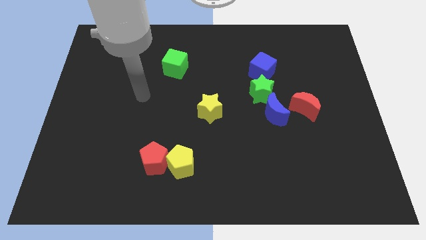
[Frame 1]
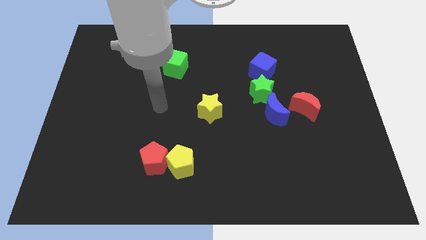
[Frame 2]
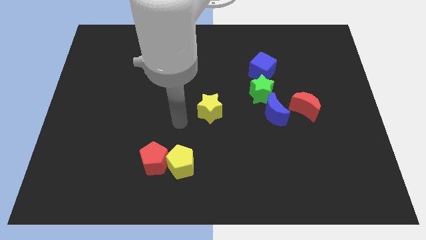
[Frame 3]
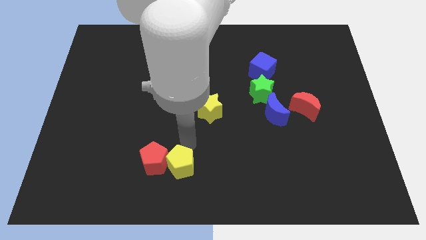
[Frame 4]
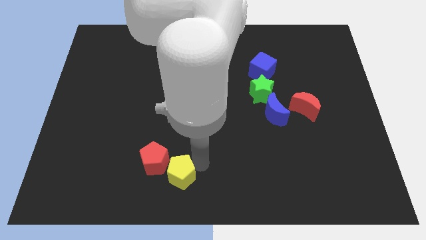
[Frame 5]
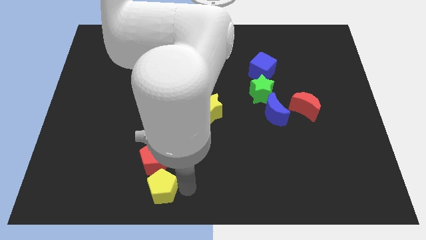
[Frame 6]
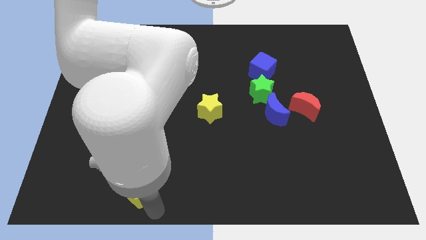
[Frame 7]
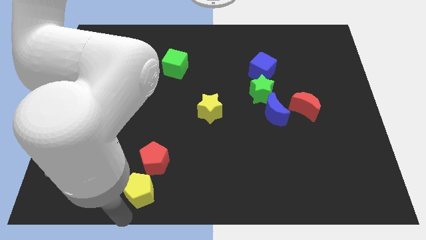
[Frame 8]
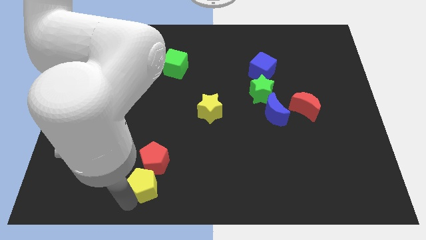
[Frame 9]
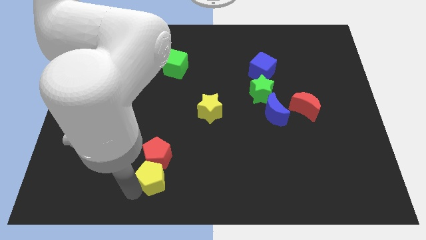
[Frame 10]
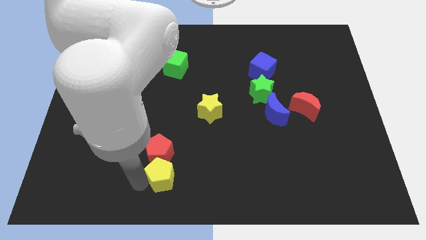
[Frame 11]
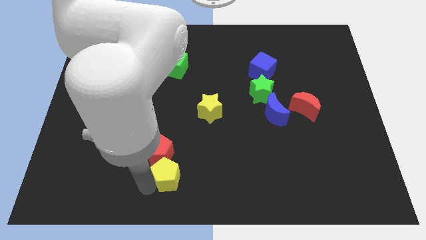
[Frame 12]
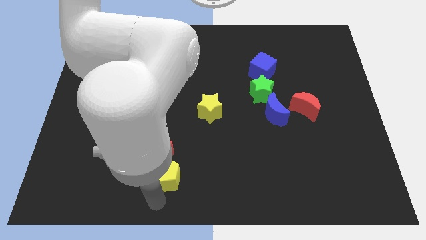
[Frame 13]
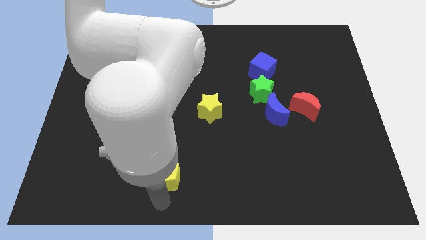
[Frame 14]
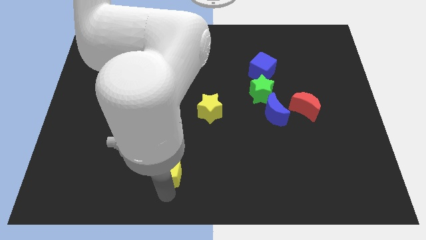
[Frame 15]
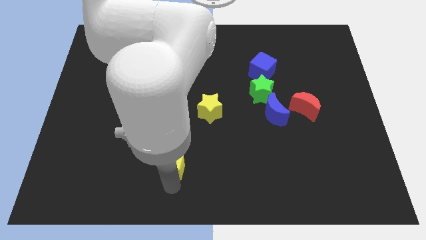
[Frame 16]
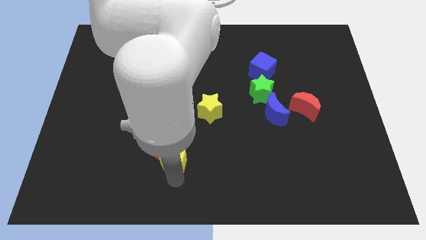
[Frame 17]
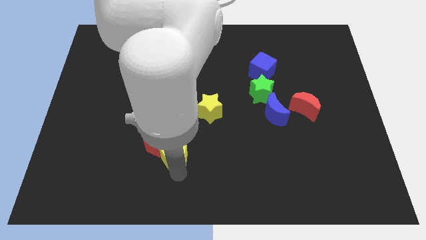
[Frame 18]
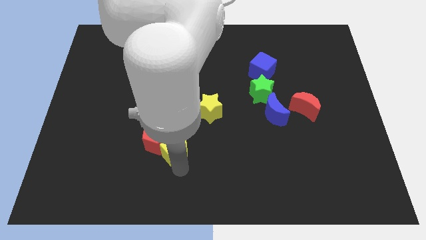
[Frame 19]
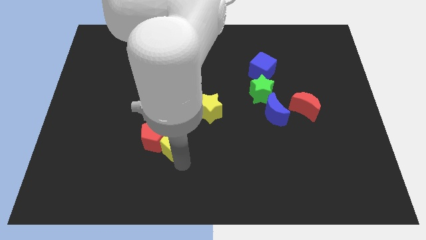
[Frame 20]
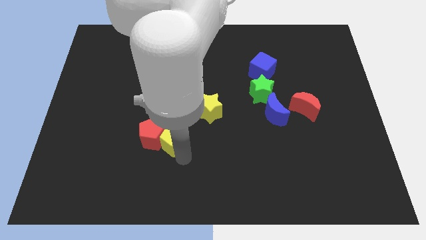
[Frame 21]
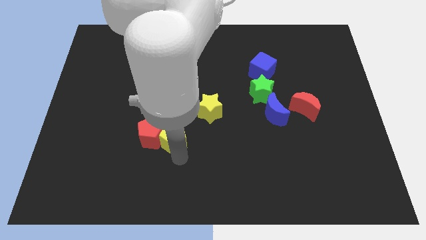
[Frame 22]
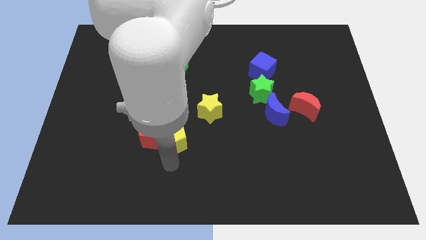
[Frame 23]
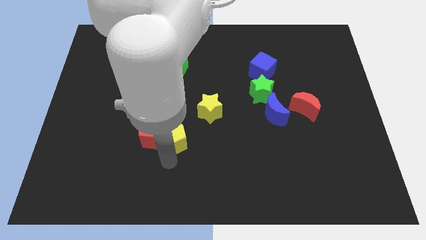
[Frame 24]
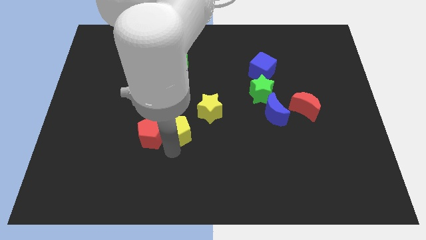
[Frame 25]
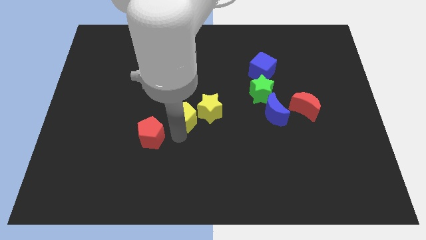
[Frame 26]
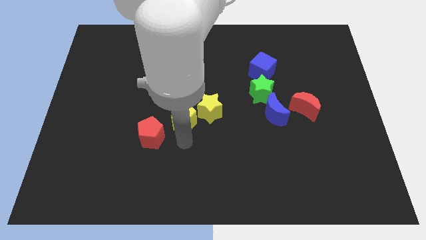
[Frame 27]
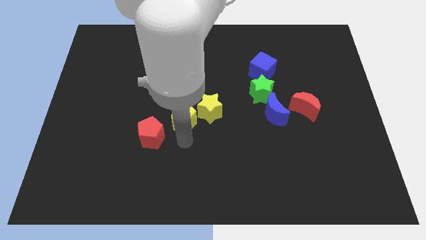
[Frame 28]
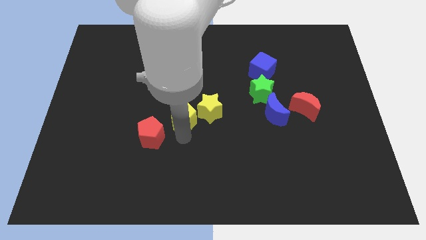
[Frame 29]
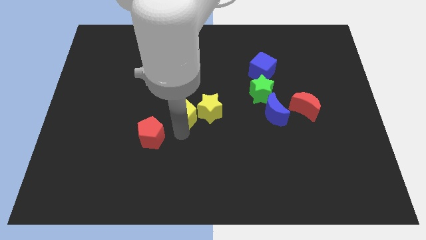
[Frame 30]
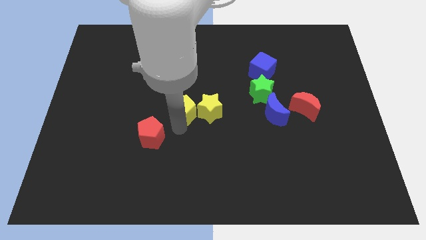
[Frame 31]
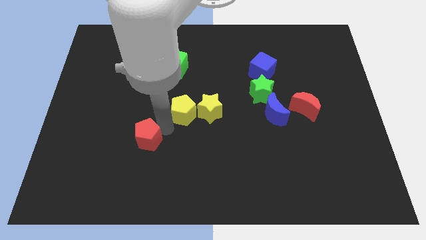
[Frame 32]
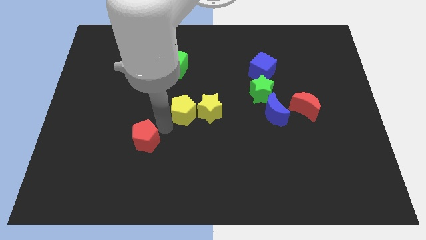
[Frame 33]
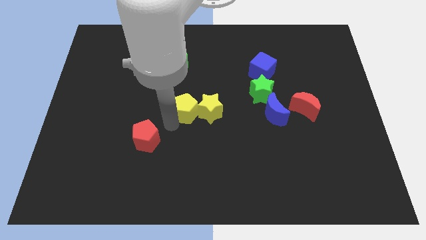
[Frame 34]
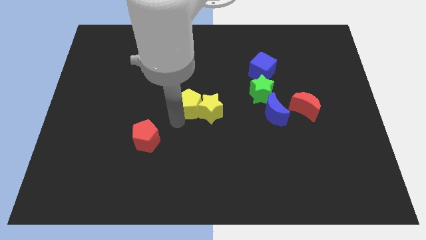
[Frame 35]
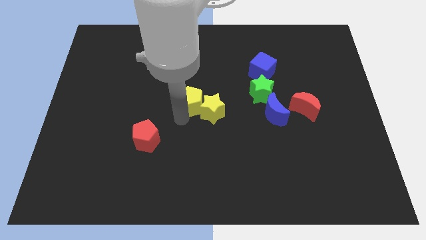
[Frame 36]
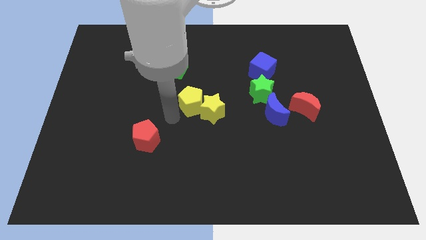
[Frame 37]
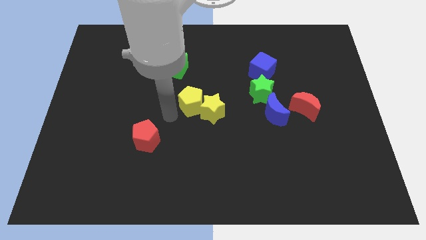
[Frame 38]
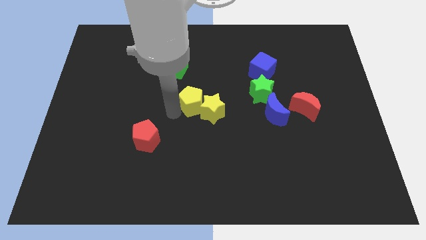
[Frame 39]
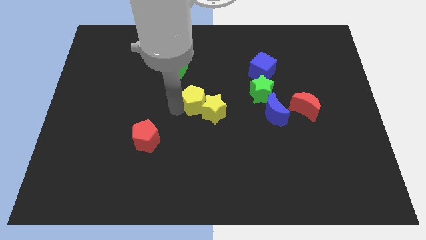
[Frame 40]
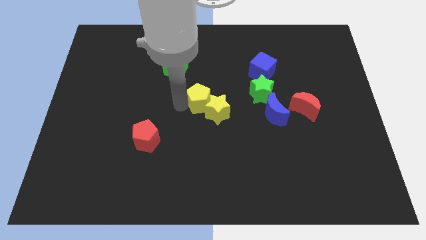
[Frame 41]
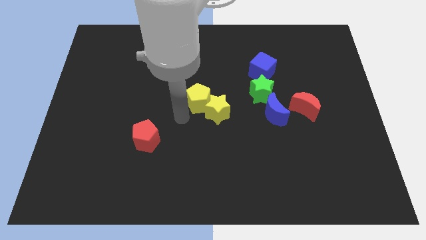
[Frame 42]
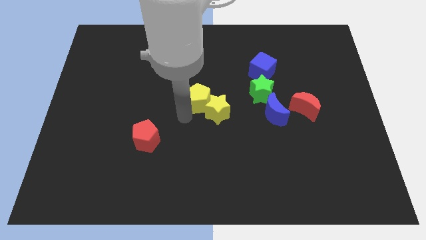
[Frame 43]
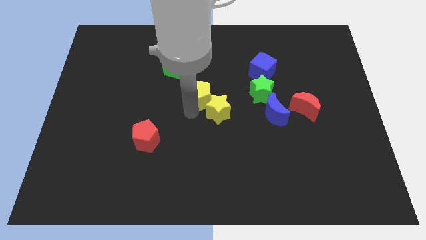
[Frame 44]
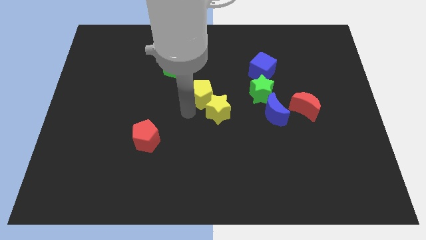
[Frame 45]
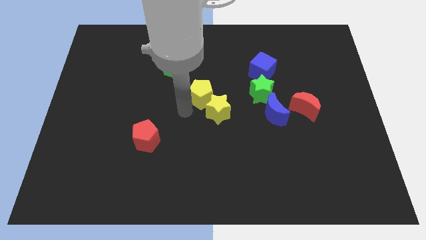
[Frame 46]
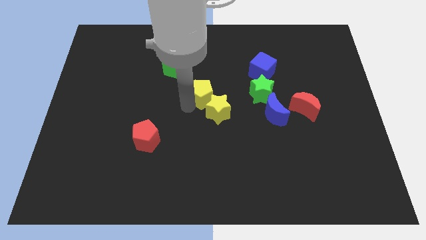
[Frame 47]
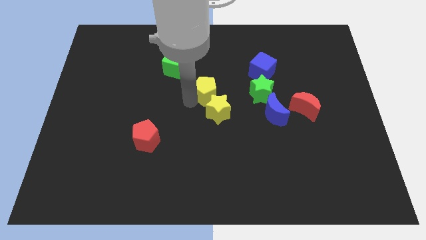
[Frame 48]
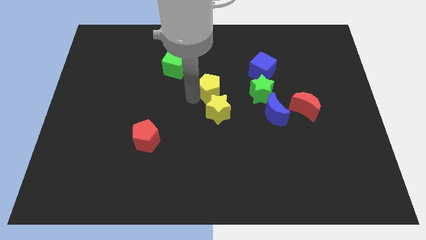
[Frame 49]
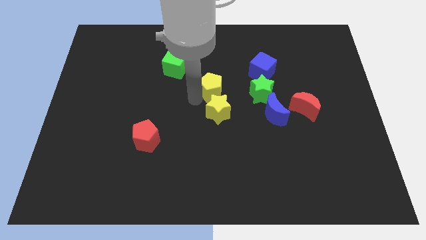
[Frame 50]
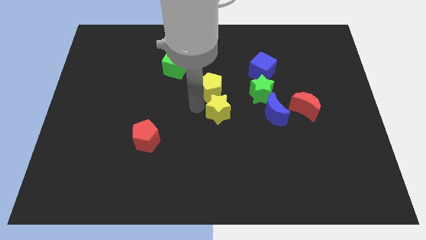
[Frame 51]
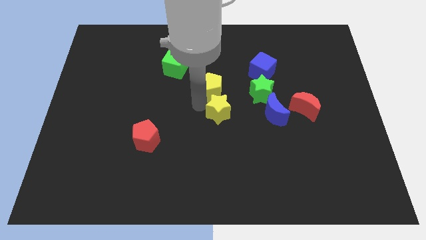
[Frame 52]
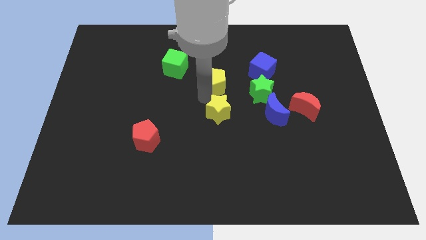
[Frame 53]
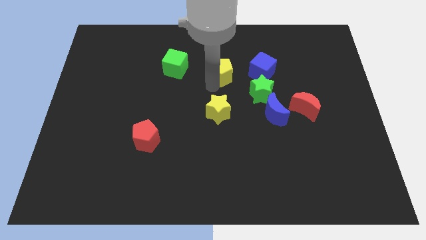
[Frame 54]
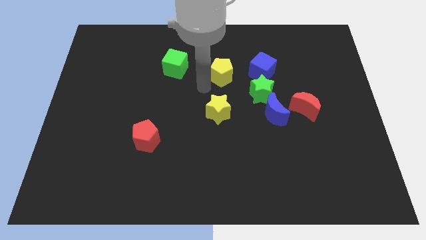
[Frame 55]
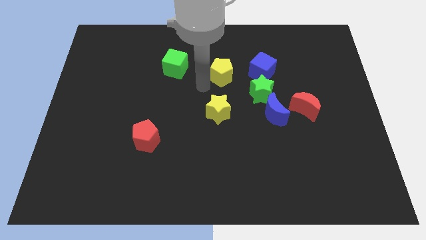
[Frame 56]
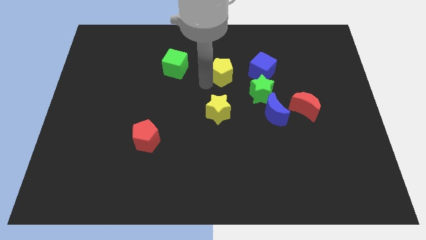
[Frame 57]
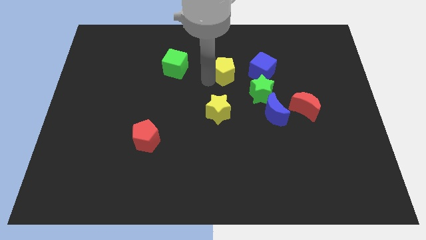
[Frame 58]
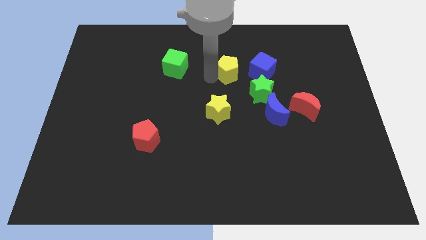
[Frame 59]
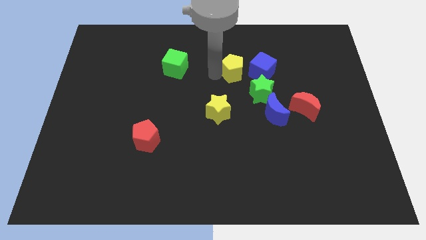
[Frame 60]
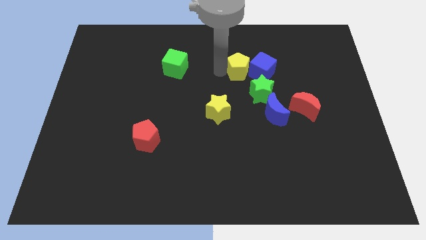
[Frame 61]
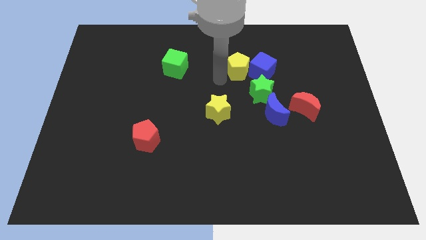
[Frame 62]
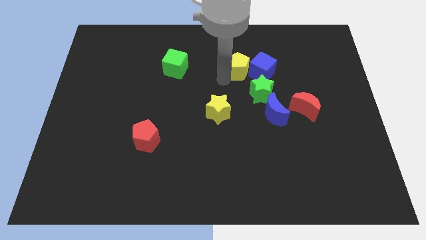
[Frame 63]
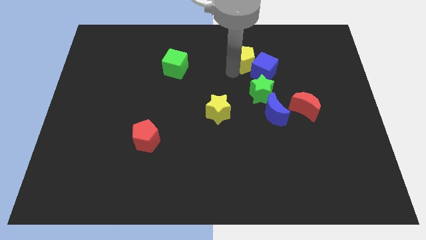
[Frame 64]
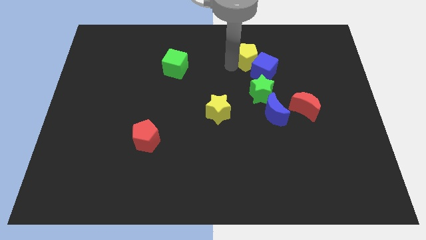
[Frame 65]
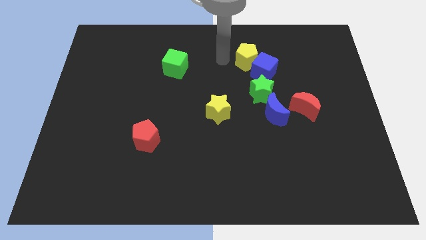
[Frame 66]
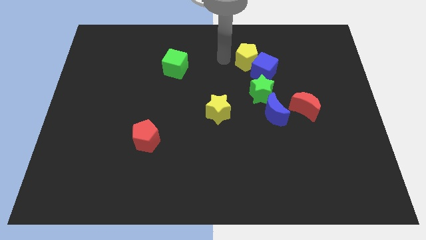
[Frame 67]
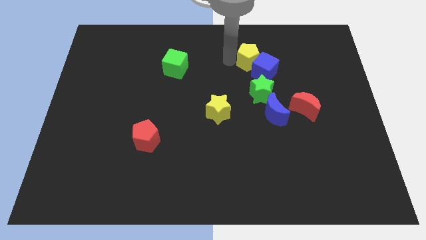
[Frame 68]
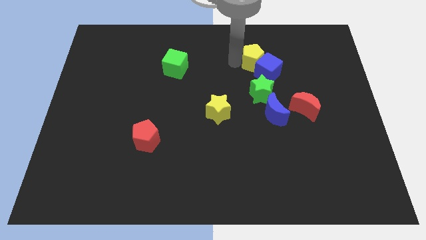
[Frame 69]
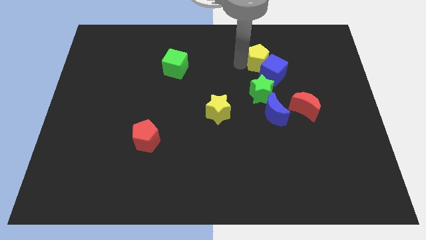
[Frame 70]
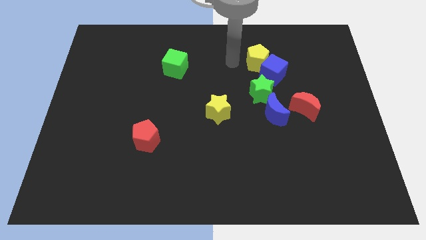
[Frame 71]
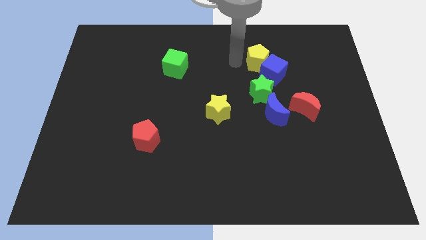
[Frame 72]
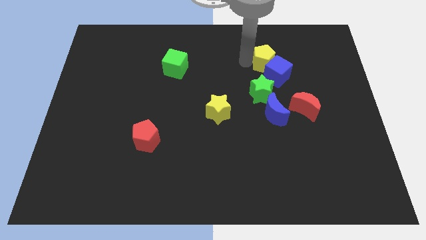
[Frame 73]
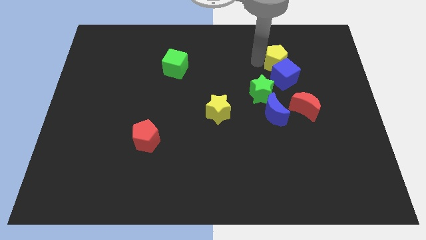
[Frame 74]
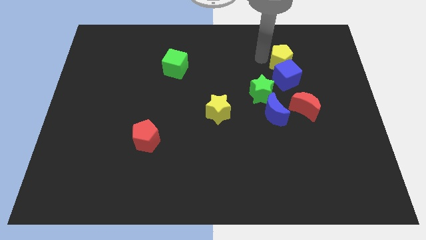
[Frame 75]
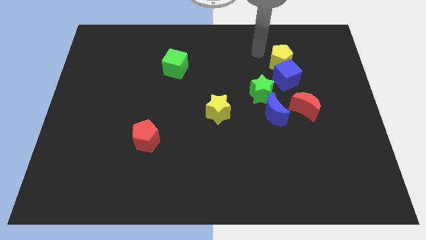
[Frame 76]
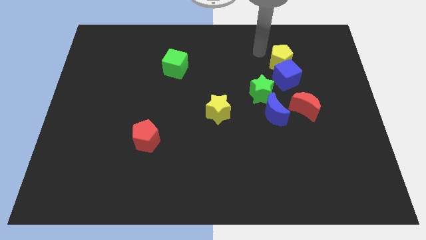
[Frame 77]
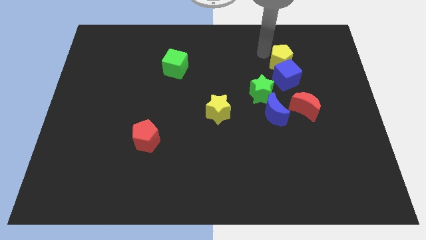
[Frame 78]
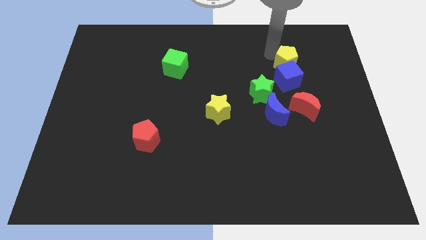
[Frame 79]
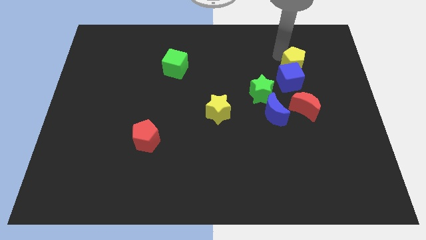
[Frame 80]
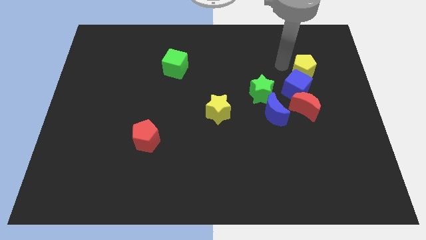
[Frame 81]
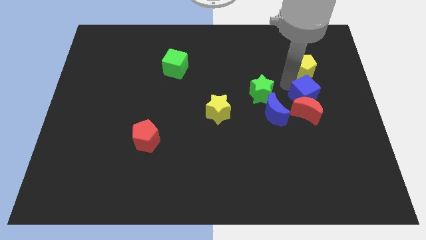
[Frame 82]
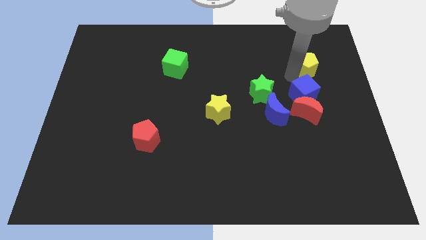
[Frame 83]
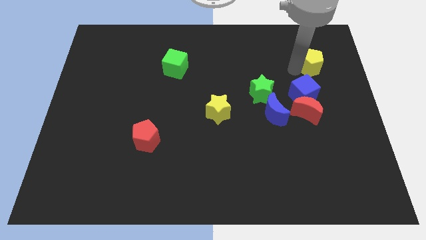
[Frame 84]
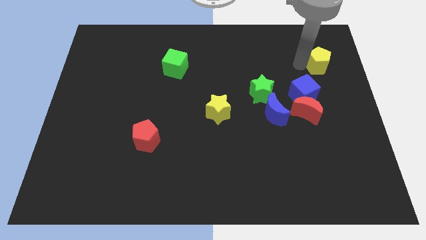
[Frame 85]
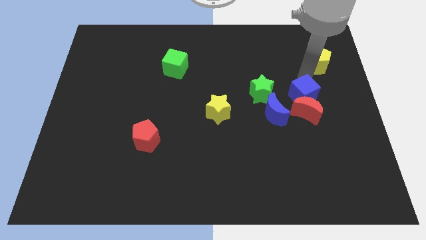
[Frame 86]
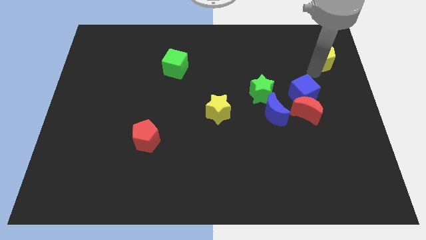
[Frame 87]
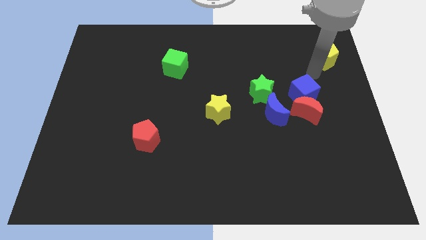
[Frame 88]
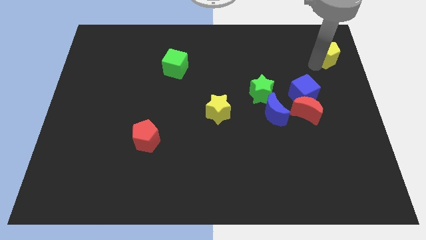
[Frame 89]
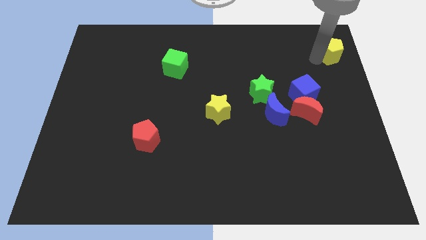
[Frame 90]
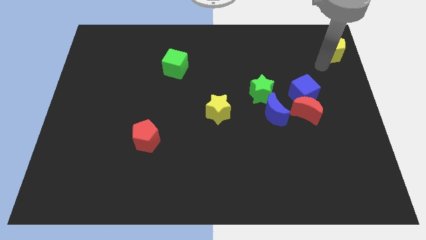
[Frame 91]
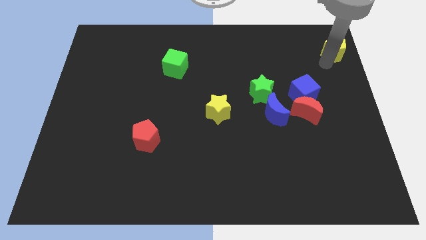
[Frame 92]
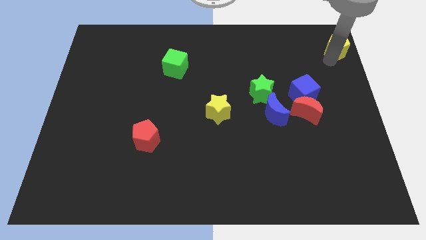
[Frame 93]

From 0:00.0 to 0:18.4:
push the yellow pentagon to the top right of the board
